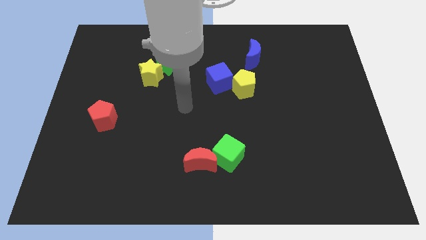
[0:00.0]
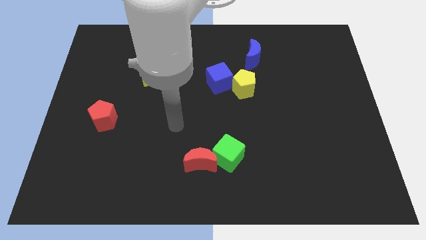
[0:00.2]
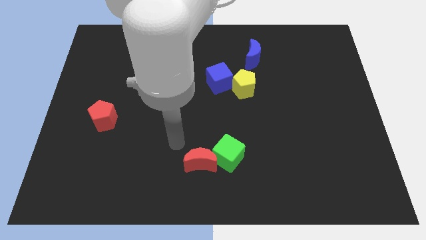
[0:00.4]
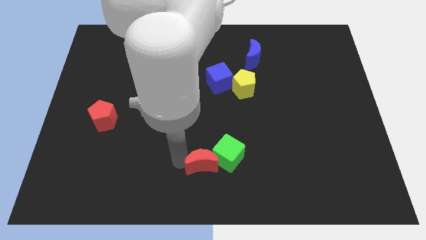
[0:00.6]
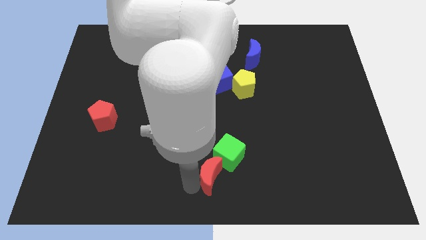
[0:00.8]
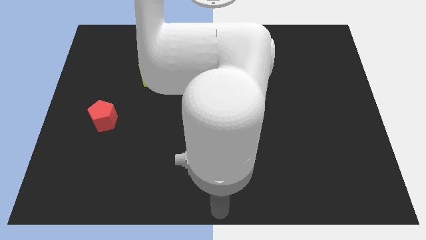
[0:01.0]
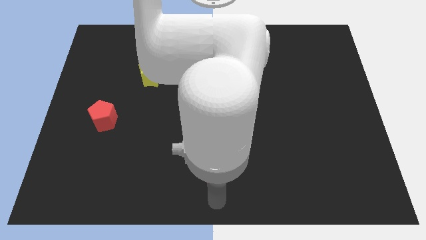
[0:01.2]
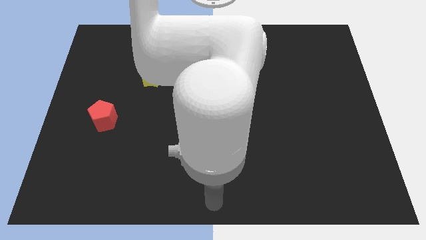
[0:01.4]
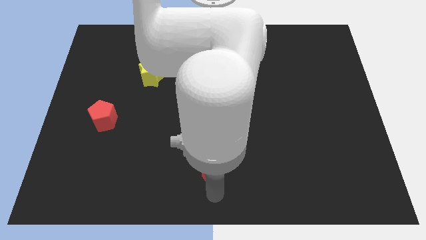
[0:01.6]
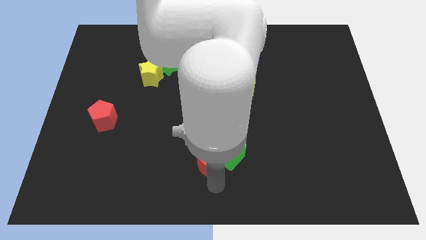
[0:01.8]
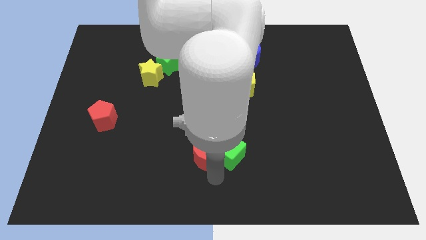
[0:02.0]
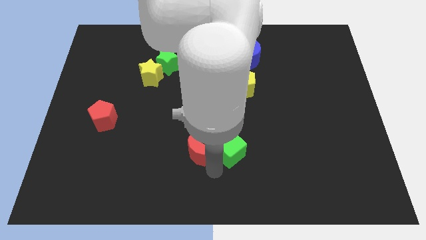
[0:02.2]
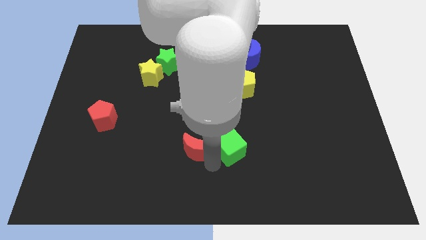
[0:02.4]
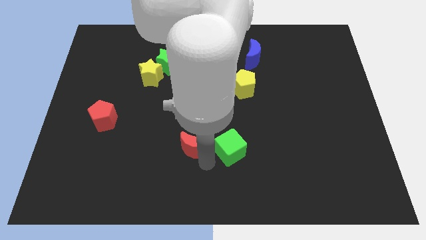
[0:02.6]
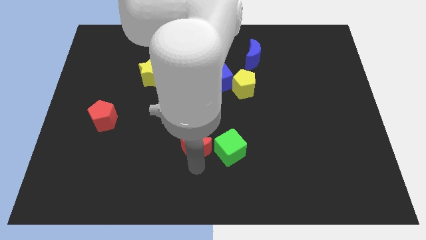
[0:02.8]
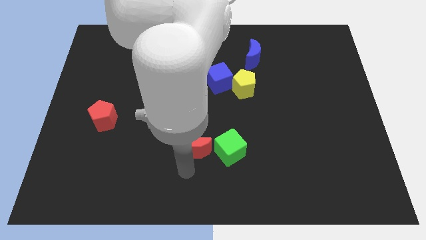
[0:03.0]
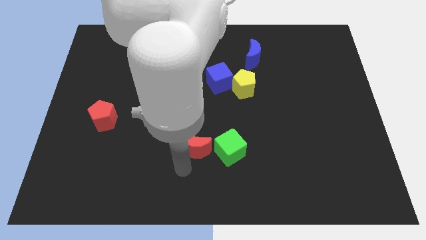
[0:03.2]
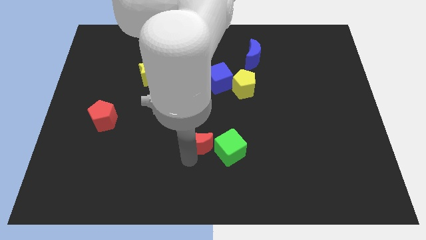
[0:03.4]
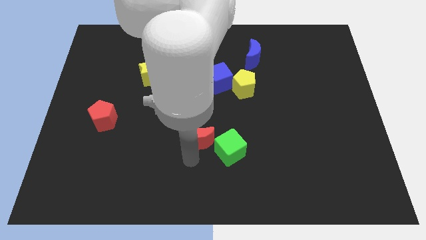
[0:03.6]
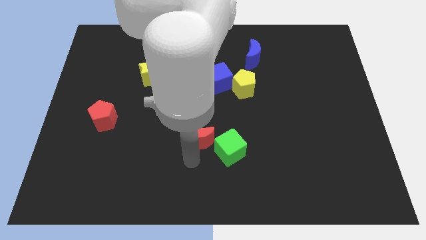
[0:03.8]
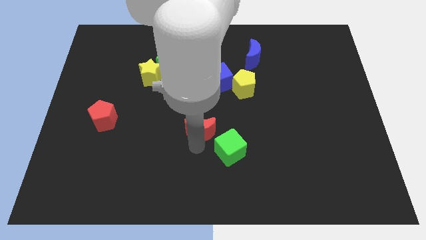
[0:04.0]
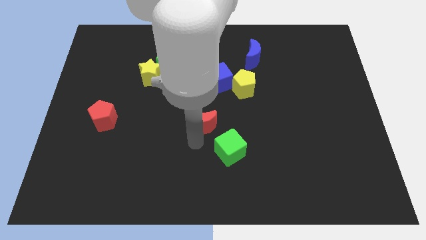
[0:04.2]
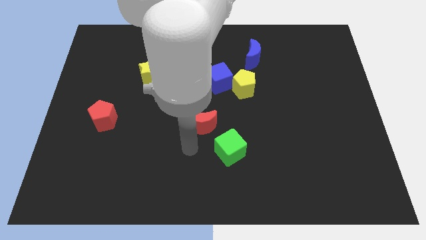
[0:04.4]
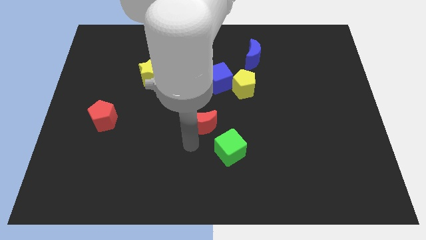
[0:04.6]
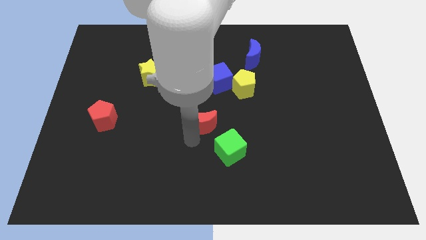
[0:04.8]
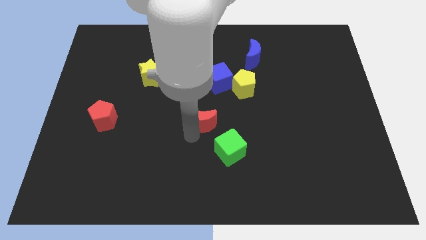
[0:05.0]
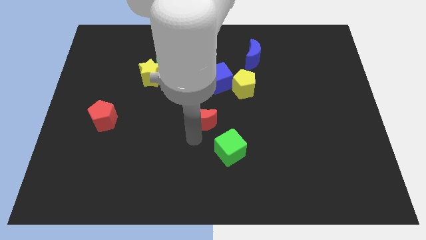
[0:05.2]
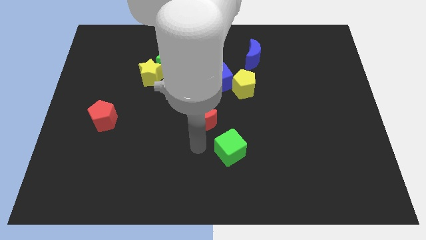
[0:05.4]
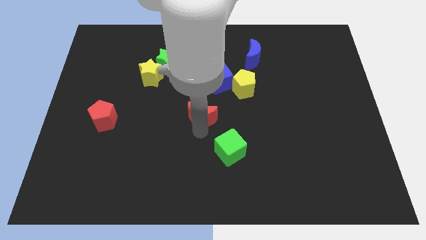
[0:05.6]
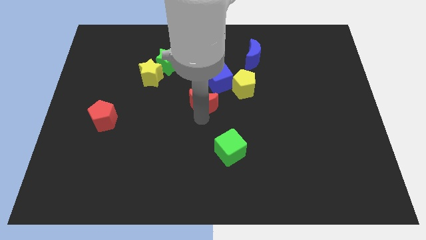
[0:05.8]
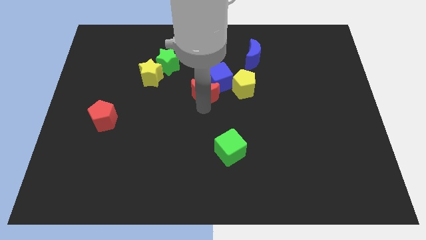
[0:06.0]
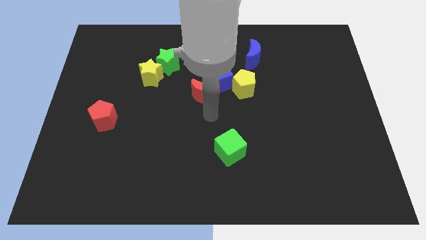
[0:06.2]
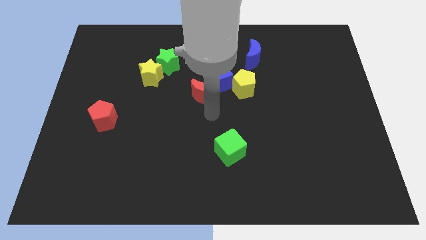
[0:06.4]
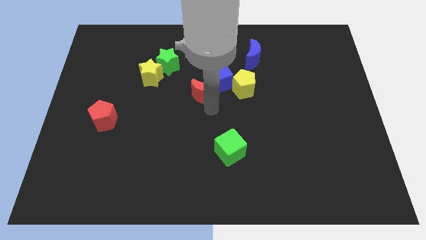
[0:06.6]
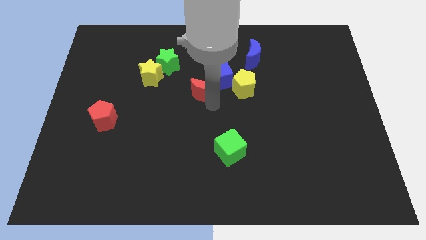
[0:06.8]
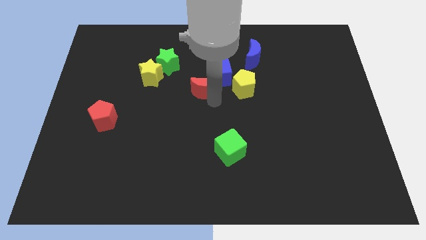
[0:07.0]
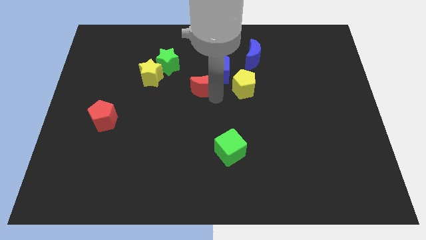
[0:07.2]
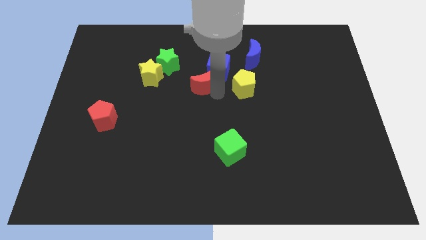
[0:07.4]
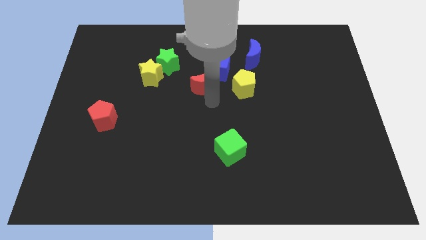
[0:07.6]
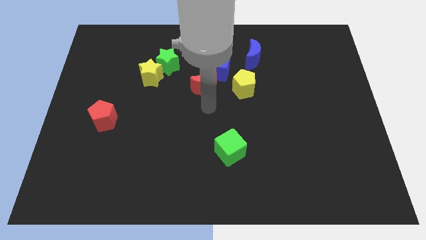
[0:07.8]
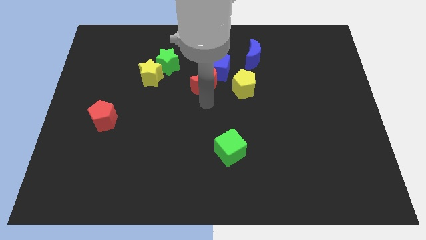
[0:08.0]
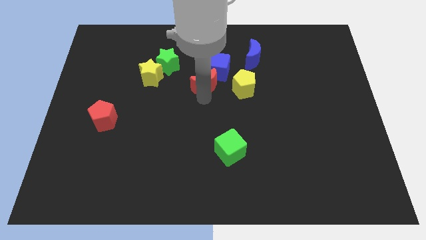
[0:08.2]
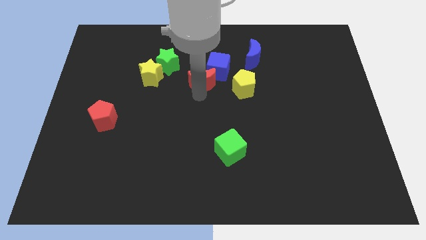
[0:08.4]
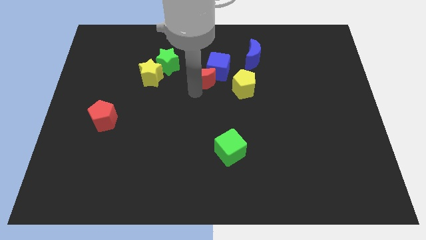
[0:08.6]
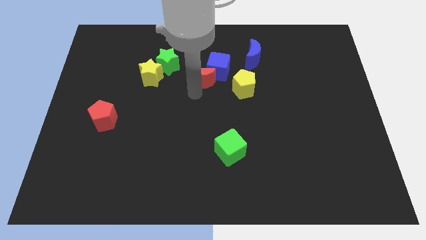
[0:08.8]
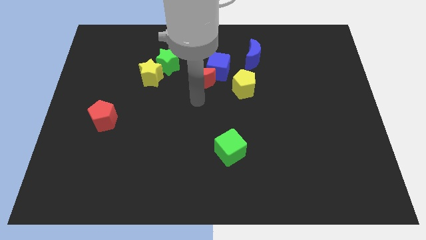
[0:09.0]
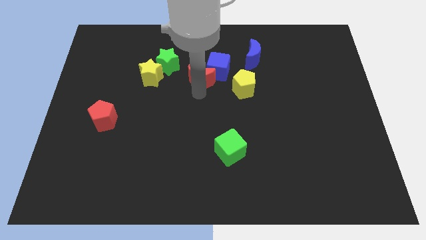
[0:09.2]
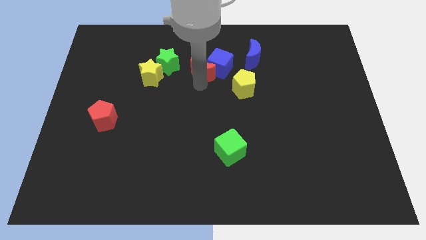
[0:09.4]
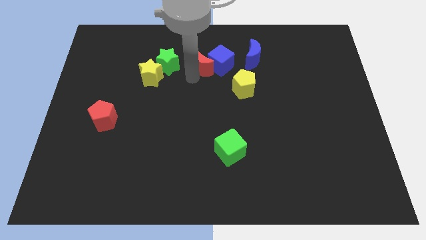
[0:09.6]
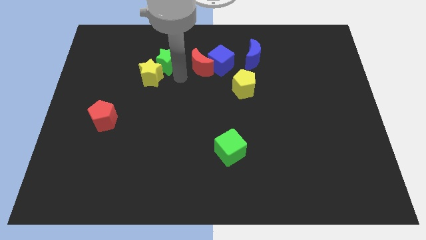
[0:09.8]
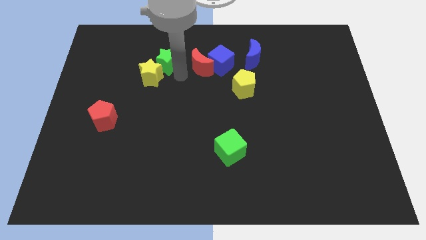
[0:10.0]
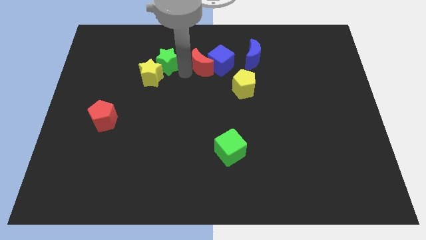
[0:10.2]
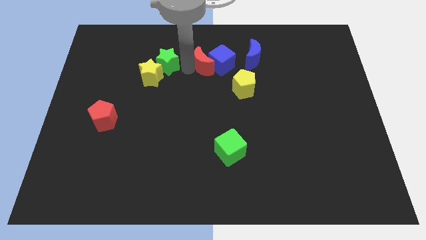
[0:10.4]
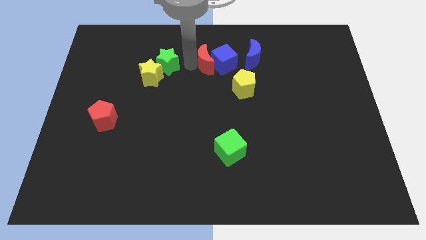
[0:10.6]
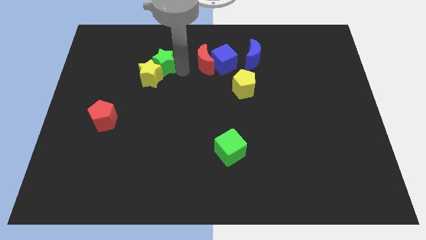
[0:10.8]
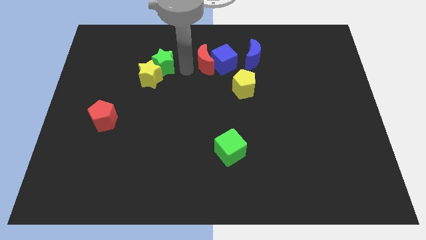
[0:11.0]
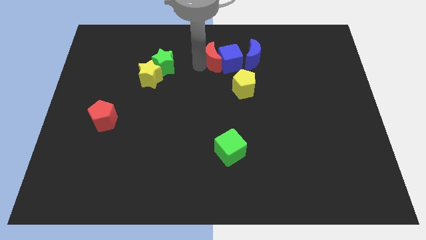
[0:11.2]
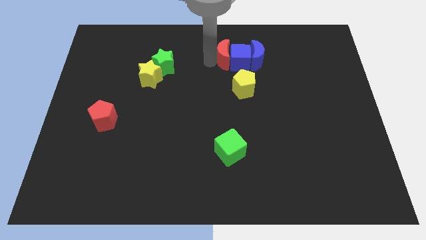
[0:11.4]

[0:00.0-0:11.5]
put the red moon to the top side of the yellow pentagon

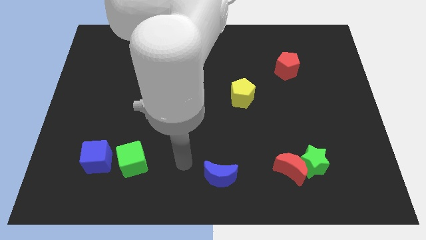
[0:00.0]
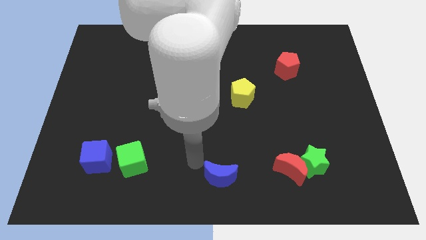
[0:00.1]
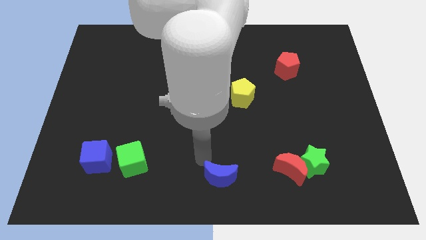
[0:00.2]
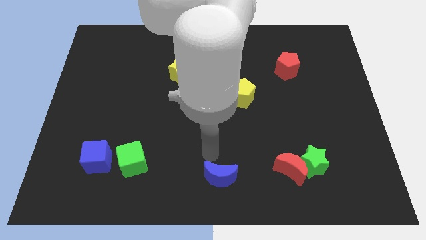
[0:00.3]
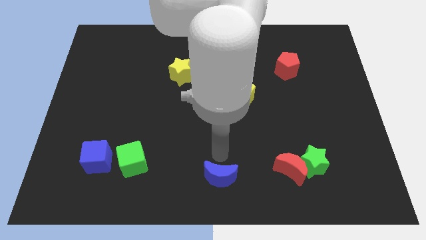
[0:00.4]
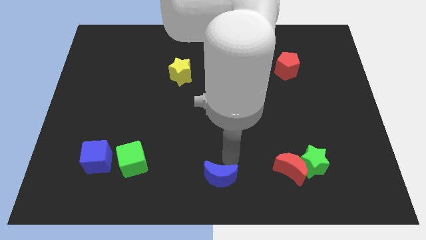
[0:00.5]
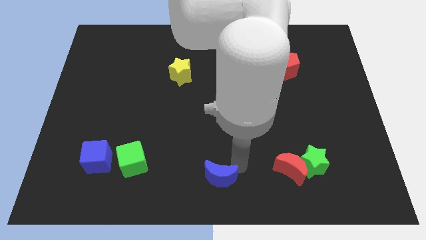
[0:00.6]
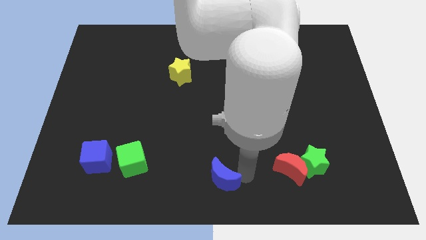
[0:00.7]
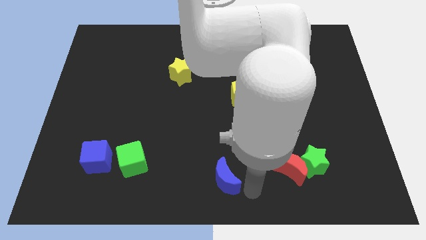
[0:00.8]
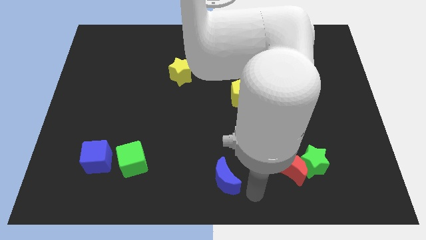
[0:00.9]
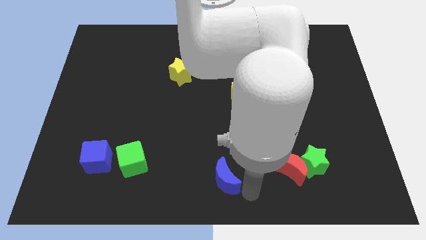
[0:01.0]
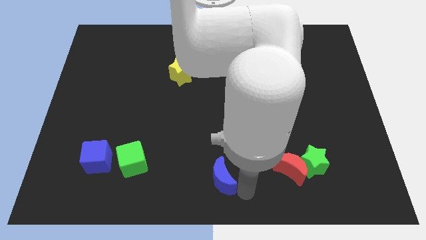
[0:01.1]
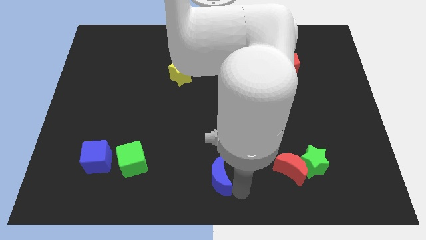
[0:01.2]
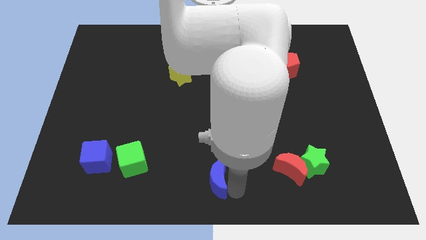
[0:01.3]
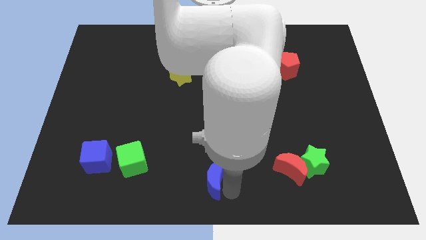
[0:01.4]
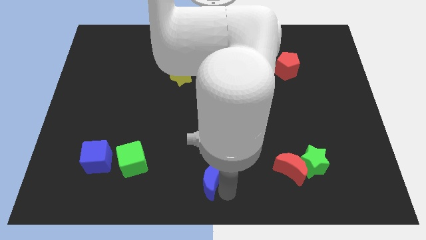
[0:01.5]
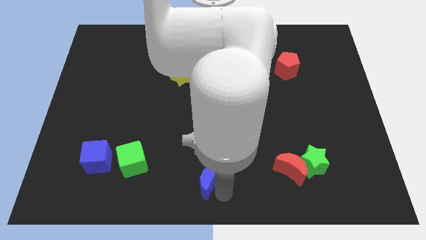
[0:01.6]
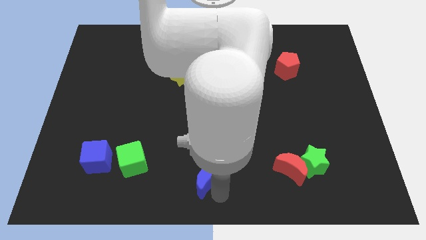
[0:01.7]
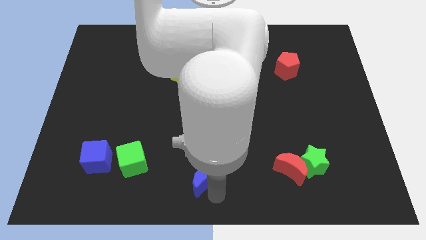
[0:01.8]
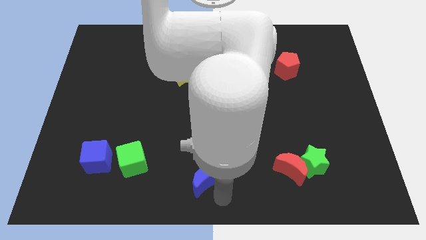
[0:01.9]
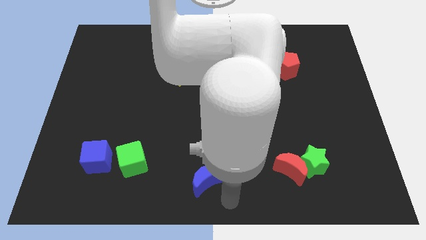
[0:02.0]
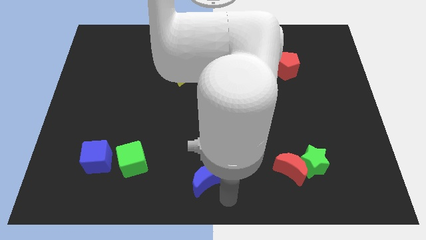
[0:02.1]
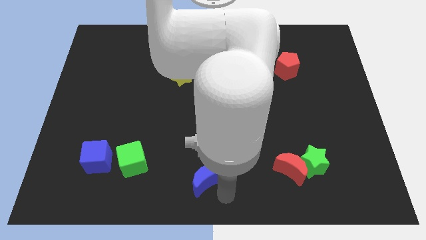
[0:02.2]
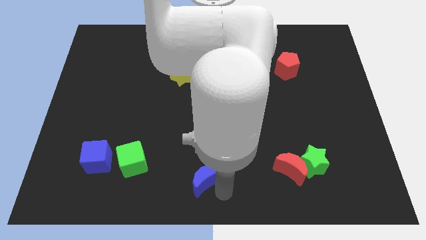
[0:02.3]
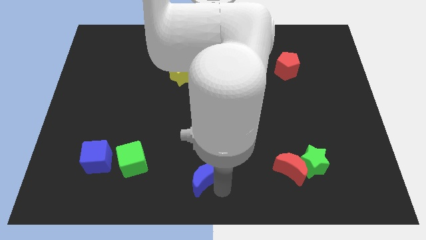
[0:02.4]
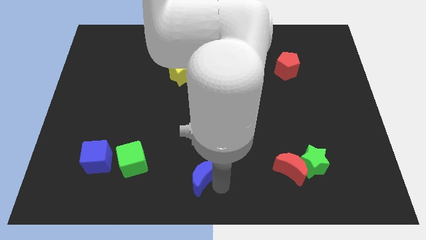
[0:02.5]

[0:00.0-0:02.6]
put the blue moon just right of the green cube
